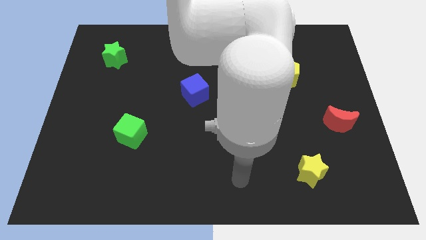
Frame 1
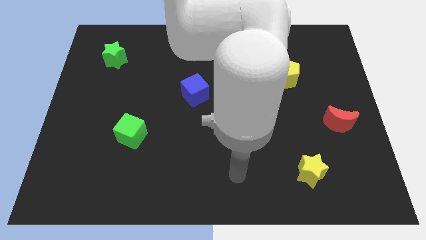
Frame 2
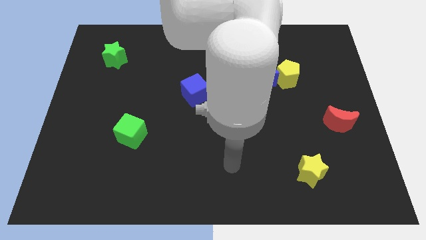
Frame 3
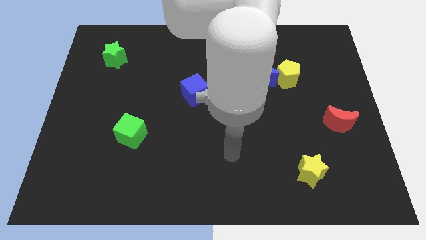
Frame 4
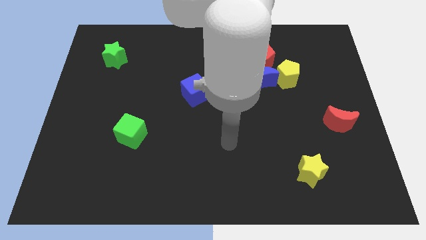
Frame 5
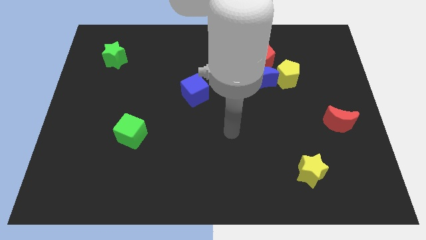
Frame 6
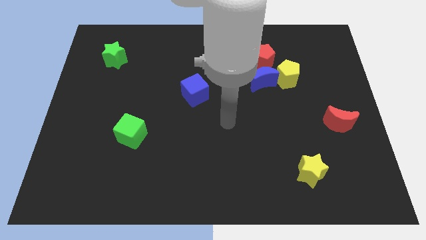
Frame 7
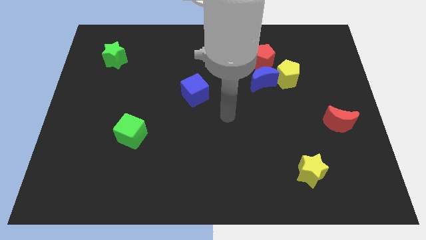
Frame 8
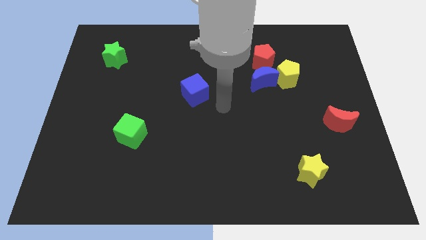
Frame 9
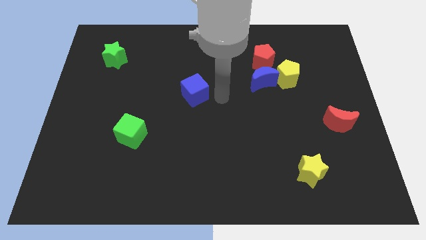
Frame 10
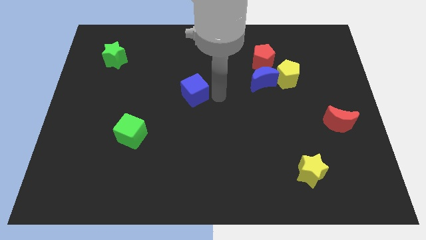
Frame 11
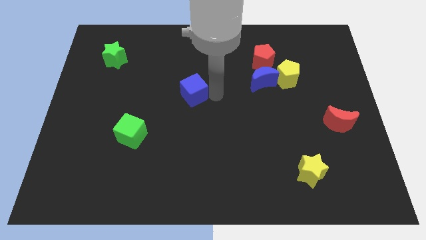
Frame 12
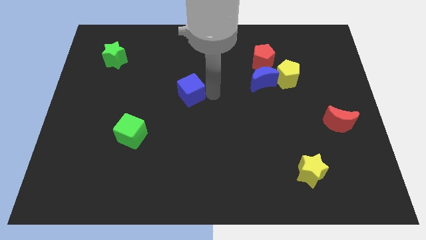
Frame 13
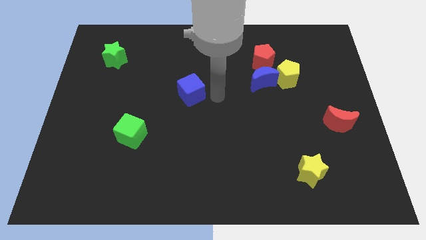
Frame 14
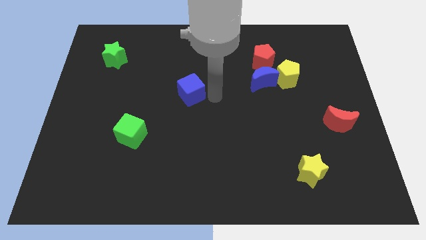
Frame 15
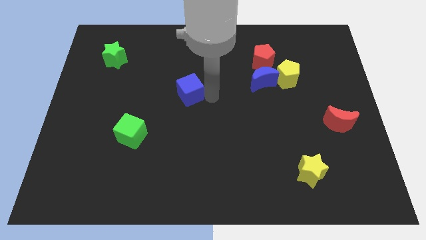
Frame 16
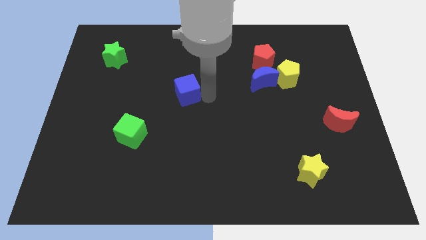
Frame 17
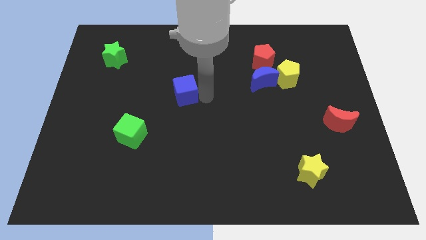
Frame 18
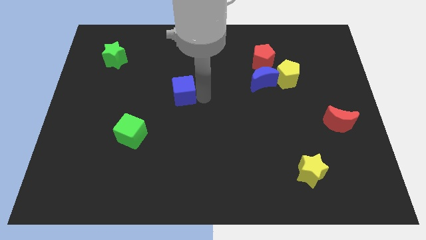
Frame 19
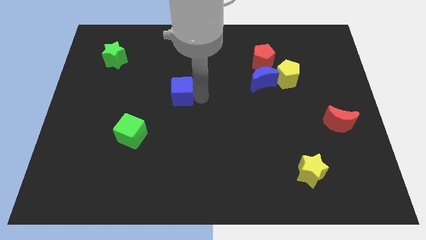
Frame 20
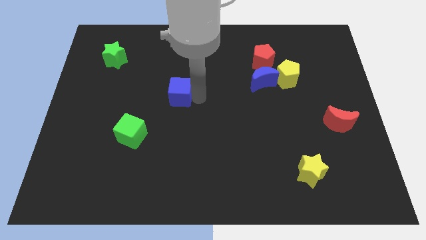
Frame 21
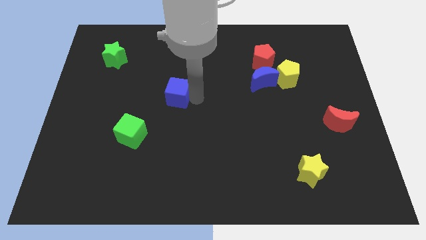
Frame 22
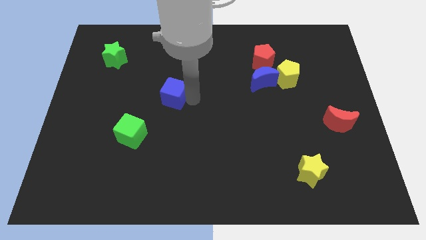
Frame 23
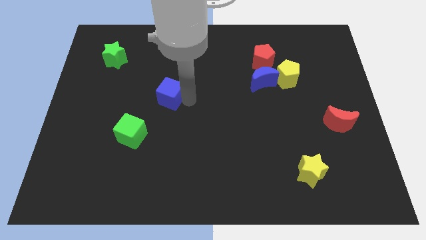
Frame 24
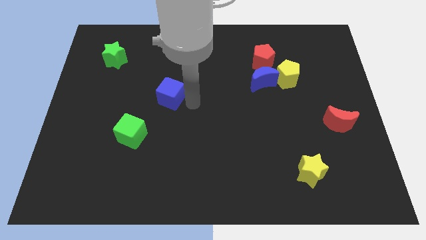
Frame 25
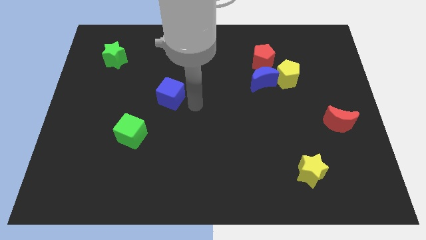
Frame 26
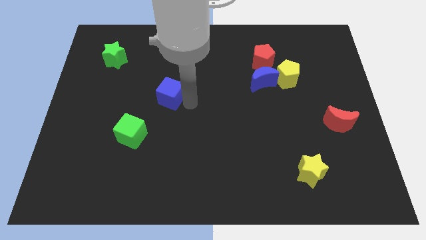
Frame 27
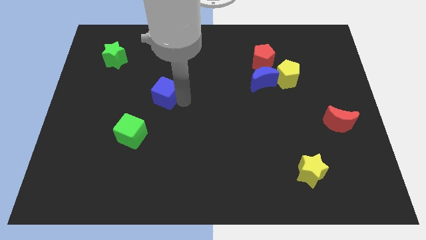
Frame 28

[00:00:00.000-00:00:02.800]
slightly push the blue cube left

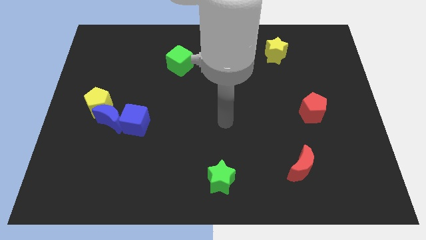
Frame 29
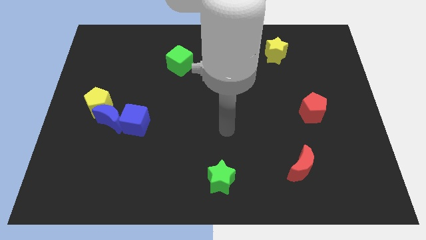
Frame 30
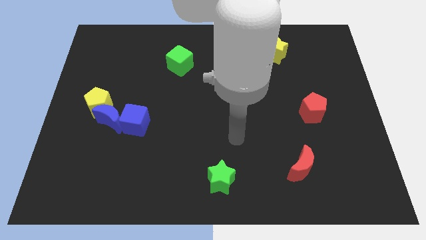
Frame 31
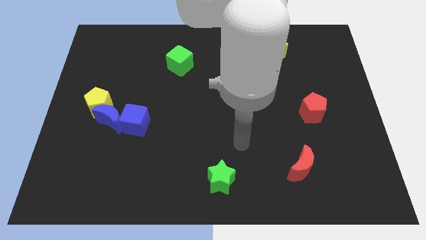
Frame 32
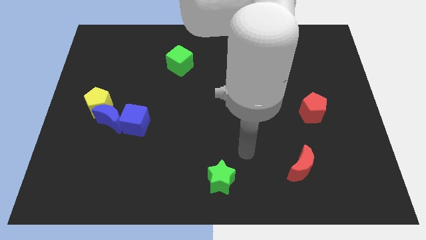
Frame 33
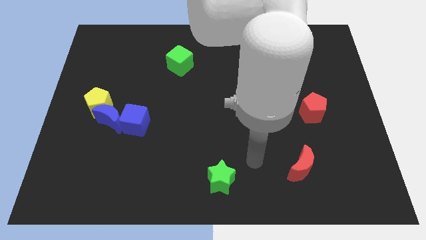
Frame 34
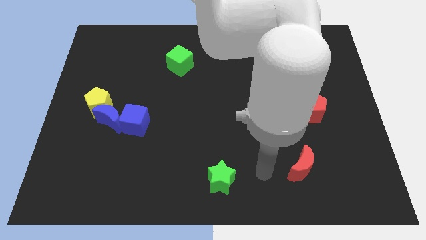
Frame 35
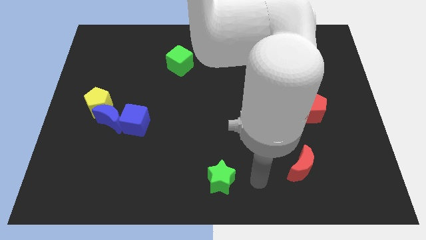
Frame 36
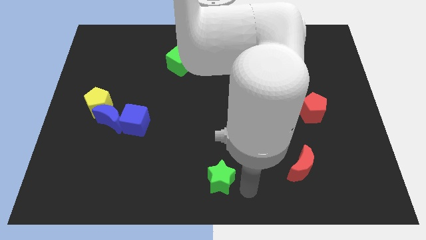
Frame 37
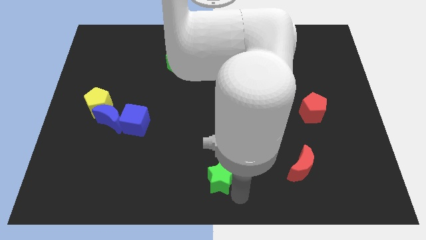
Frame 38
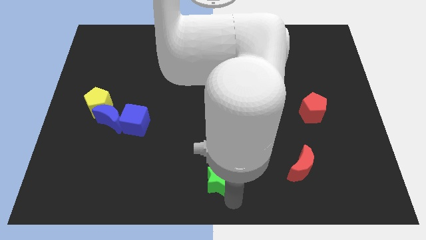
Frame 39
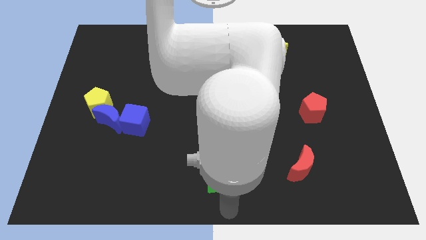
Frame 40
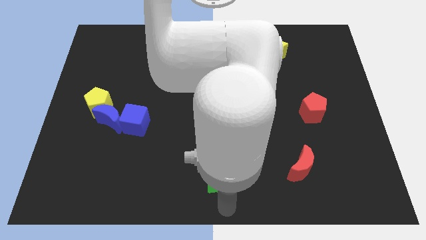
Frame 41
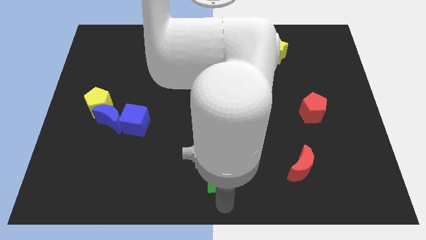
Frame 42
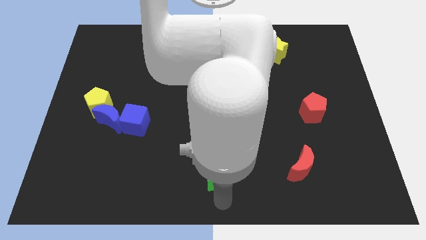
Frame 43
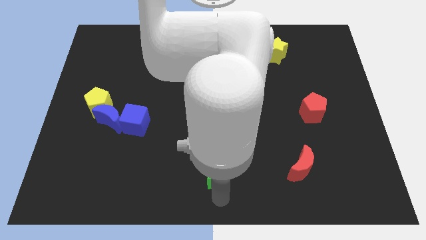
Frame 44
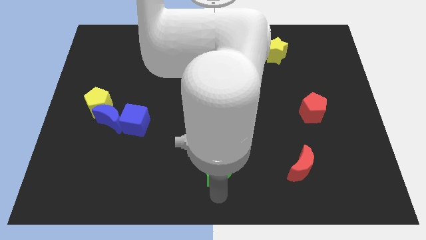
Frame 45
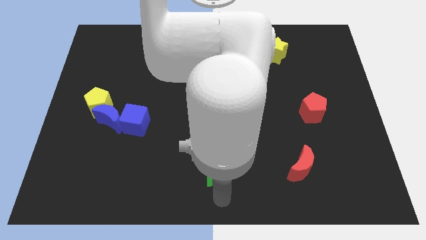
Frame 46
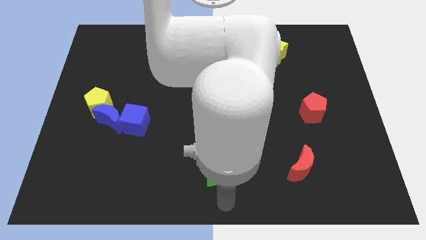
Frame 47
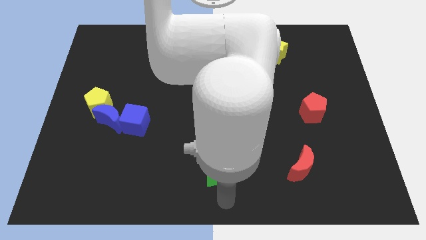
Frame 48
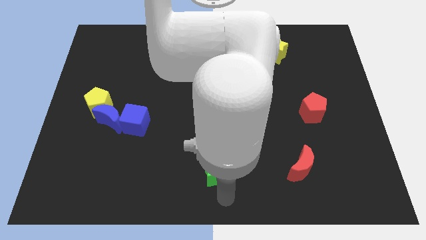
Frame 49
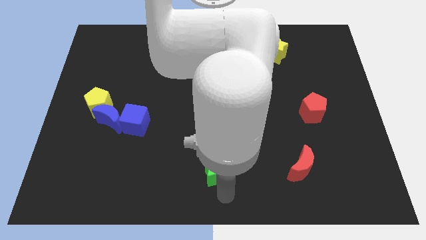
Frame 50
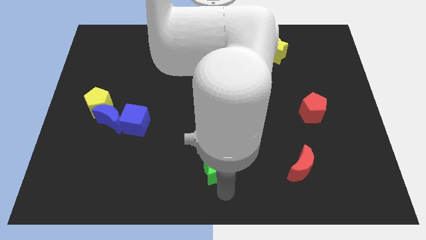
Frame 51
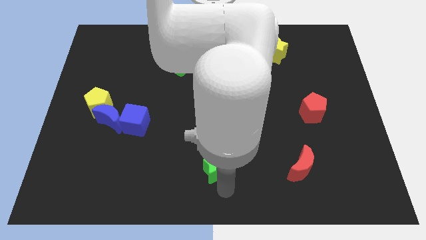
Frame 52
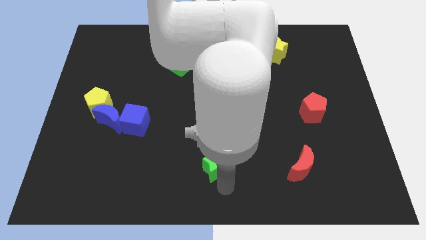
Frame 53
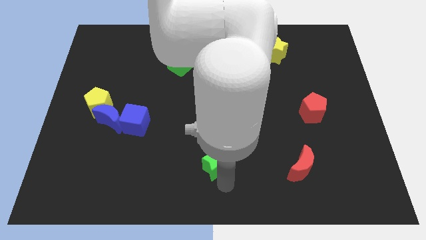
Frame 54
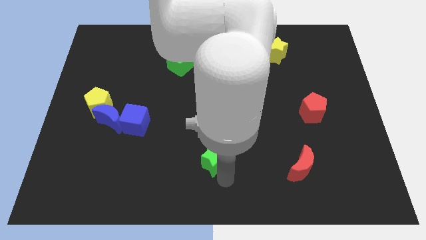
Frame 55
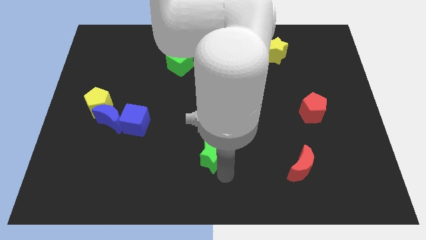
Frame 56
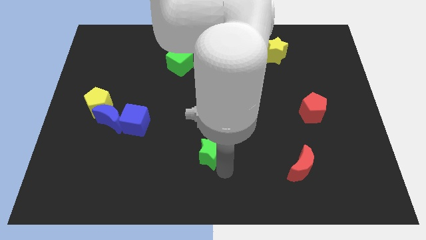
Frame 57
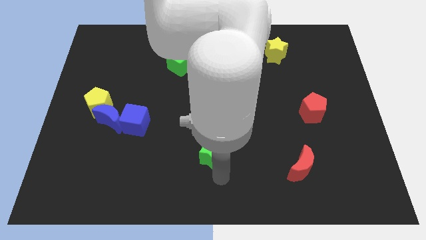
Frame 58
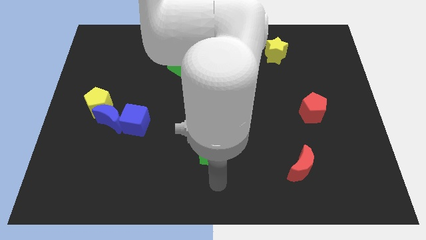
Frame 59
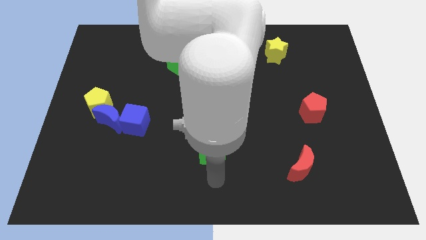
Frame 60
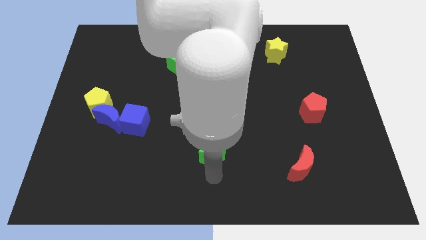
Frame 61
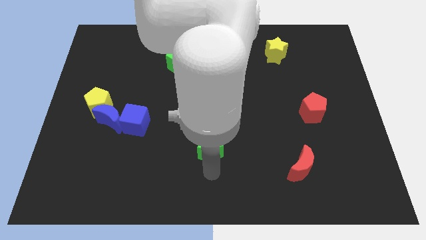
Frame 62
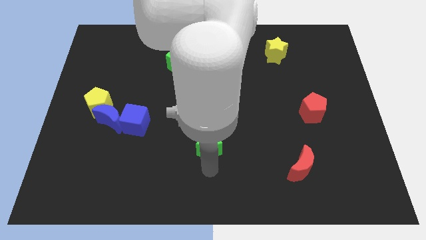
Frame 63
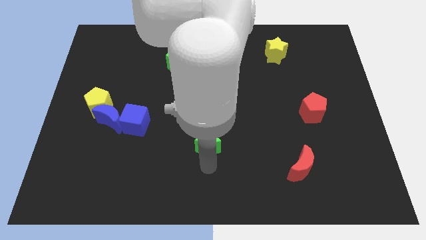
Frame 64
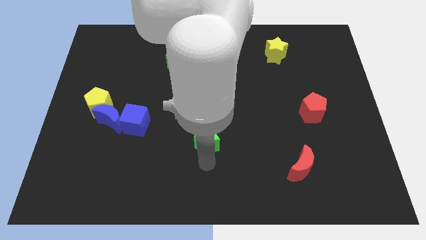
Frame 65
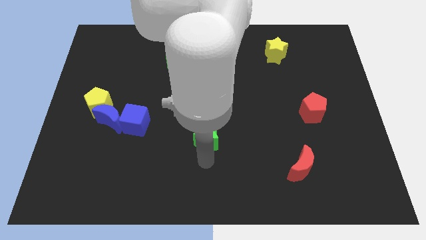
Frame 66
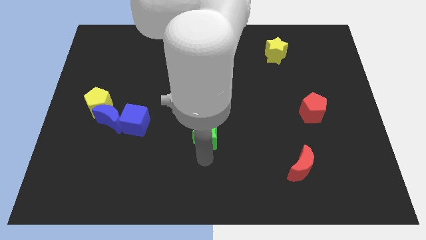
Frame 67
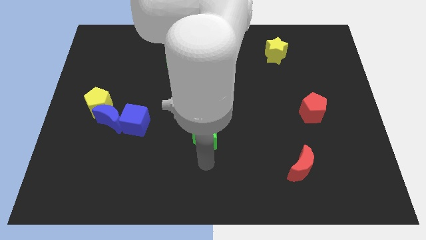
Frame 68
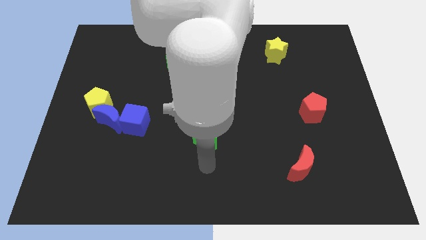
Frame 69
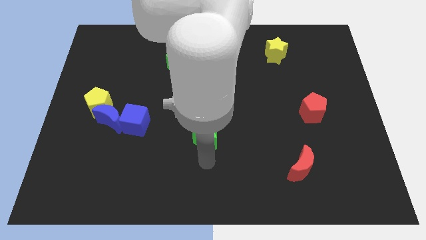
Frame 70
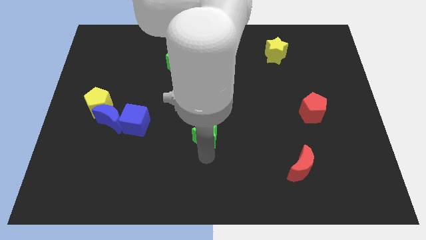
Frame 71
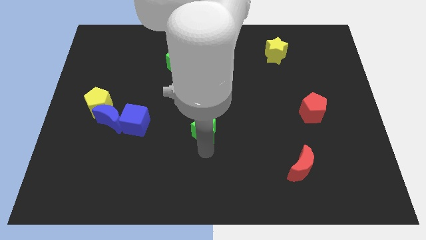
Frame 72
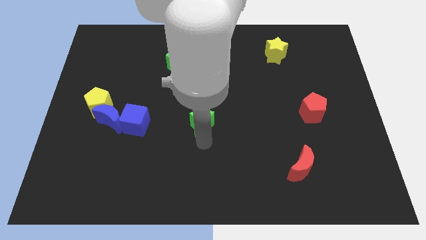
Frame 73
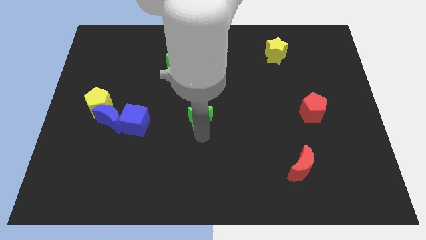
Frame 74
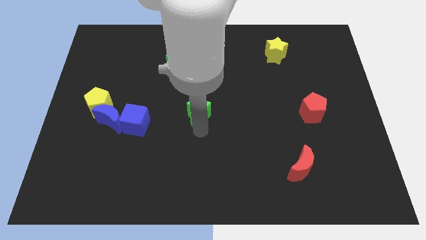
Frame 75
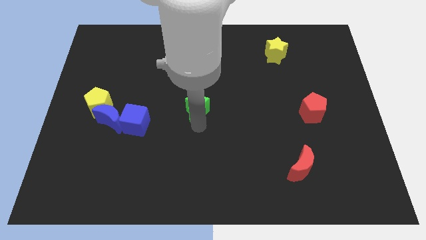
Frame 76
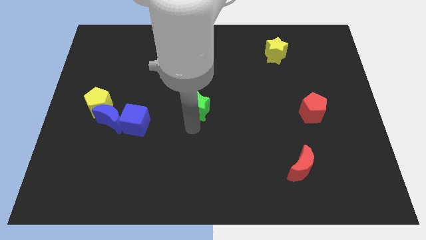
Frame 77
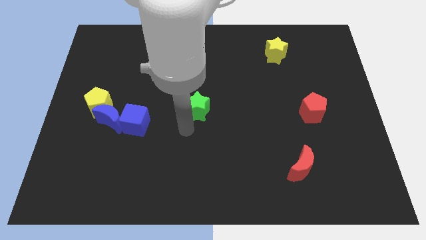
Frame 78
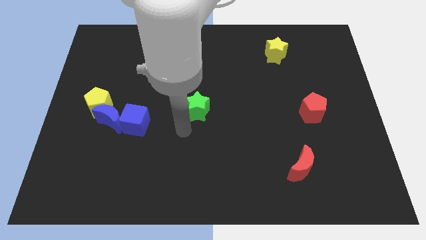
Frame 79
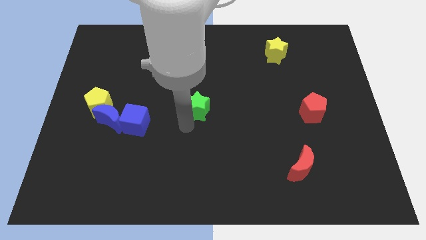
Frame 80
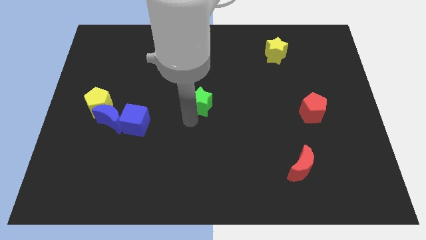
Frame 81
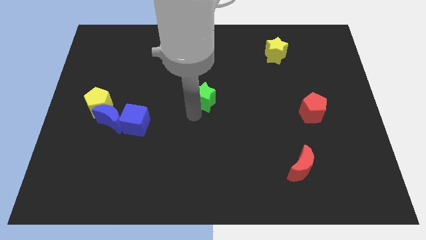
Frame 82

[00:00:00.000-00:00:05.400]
push the green star upwards

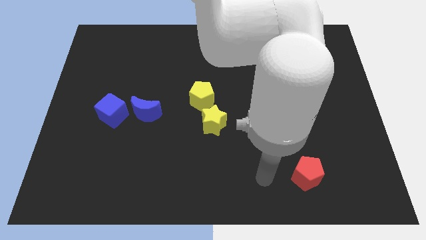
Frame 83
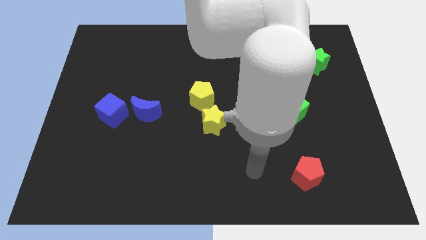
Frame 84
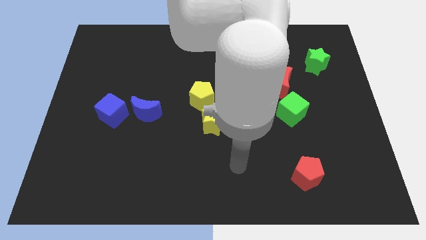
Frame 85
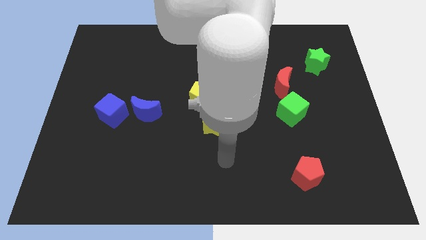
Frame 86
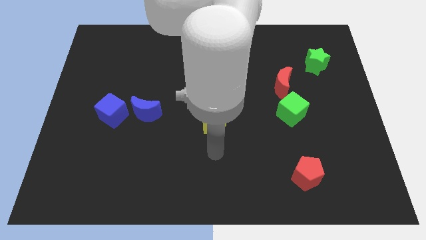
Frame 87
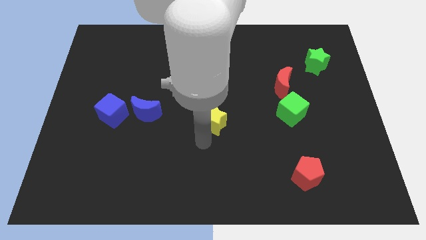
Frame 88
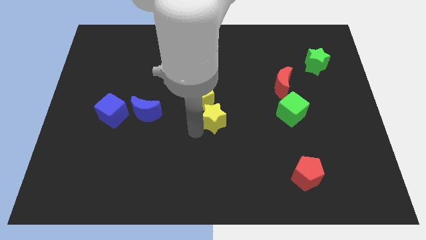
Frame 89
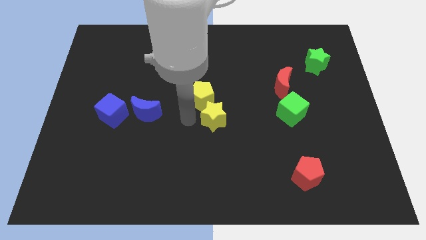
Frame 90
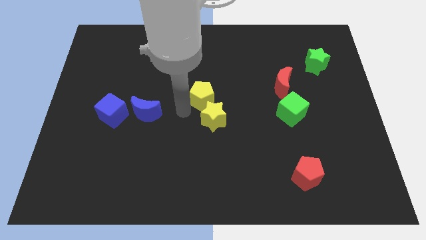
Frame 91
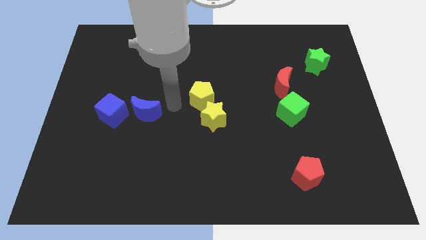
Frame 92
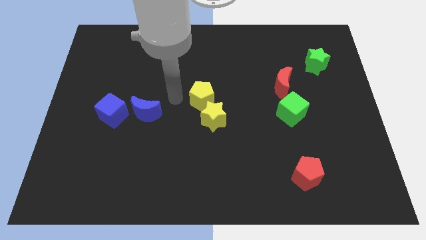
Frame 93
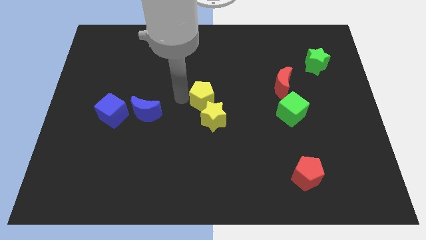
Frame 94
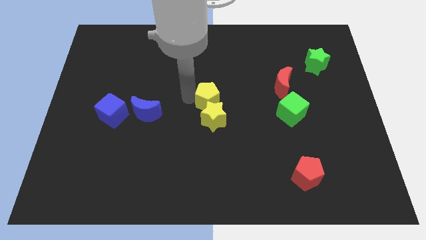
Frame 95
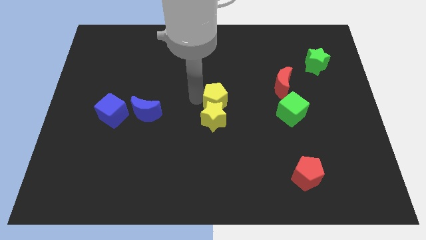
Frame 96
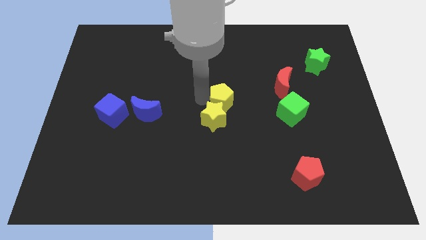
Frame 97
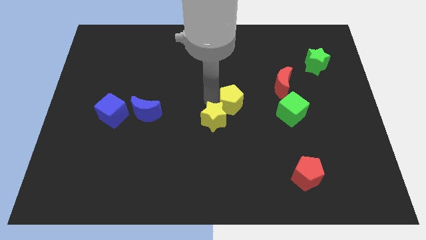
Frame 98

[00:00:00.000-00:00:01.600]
push the yellow pentagon a bit to the right
